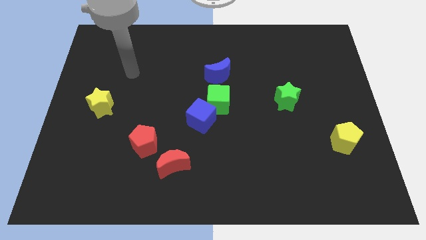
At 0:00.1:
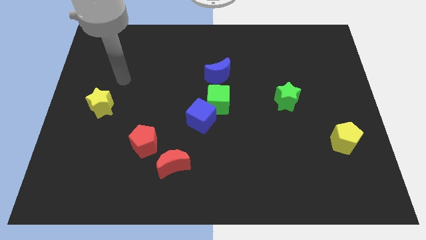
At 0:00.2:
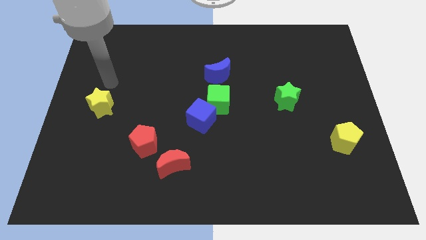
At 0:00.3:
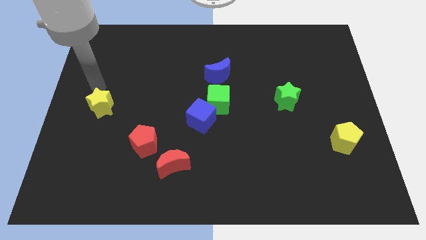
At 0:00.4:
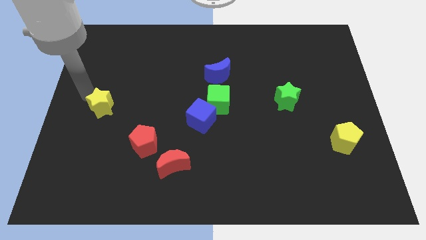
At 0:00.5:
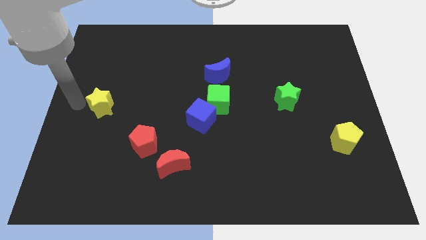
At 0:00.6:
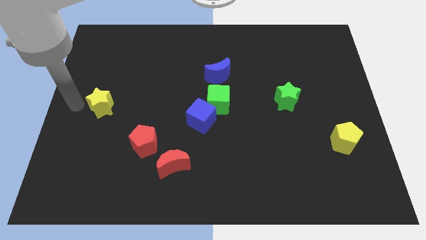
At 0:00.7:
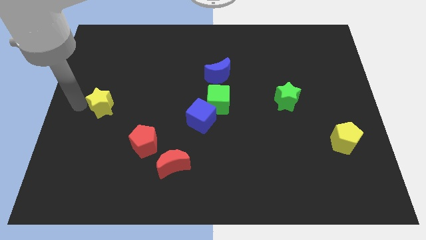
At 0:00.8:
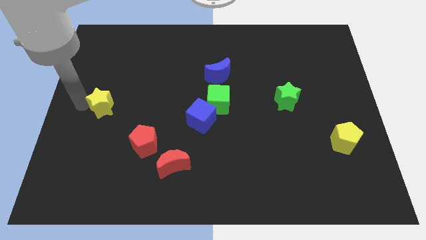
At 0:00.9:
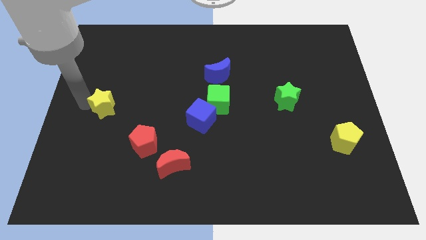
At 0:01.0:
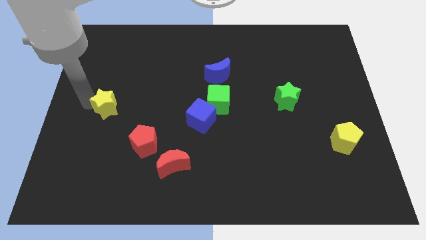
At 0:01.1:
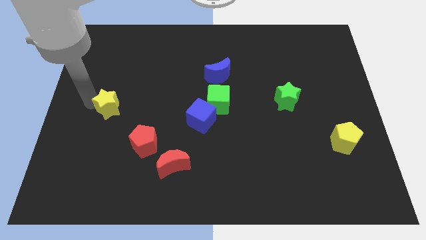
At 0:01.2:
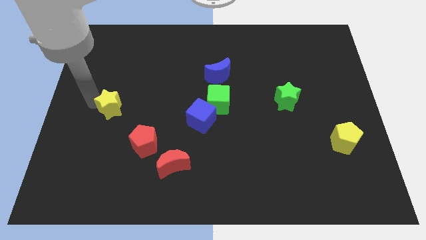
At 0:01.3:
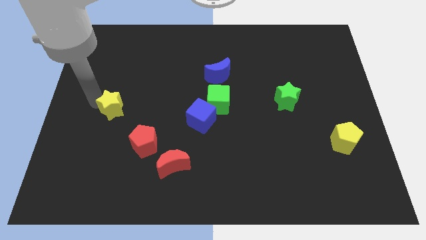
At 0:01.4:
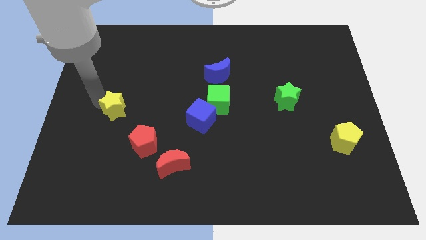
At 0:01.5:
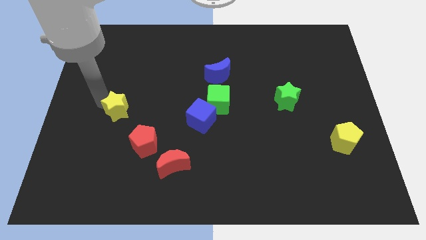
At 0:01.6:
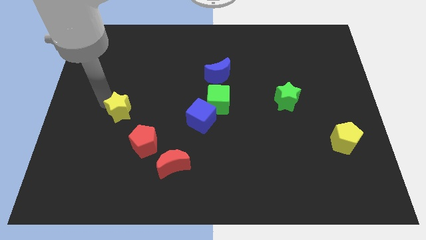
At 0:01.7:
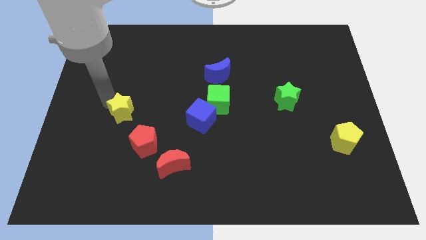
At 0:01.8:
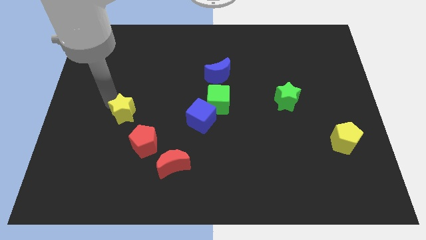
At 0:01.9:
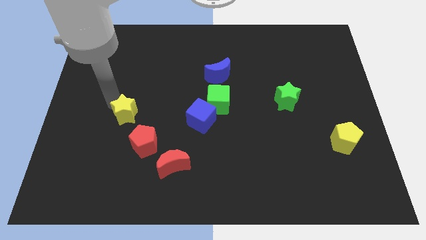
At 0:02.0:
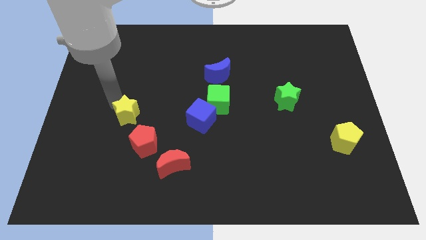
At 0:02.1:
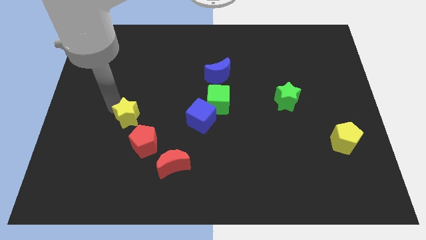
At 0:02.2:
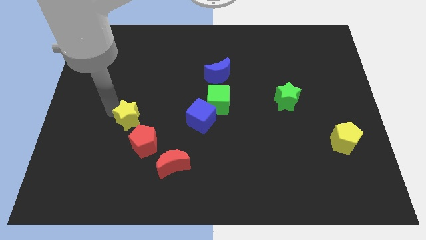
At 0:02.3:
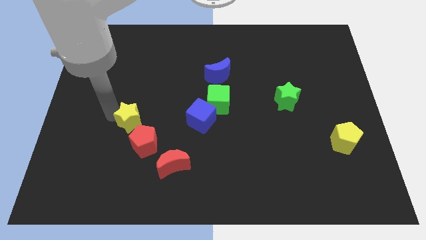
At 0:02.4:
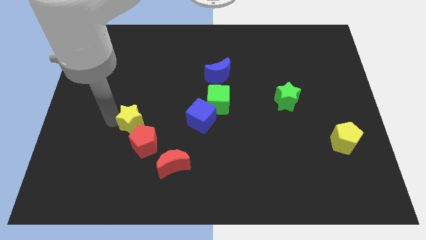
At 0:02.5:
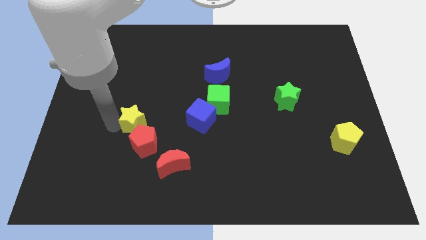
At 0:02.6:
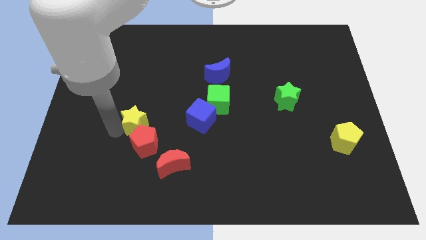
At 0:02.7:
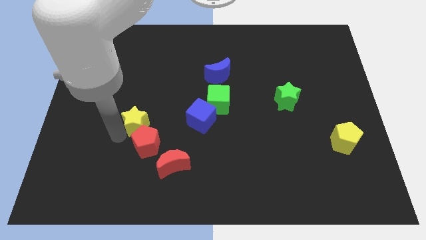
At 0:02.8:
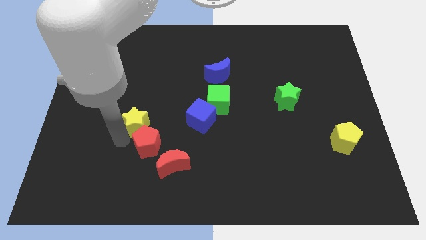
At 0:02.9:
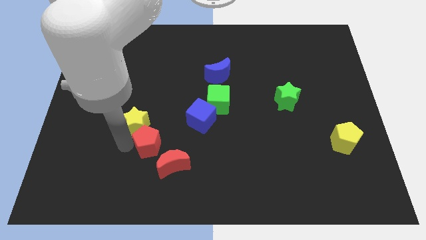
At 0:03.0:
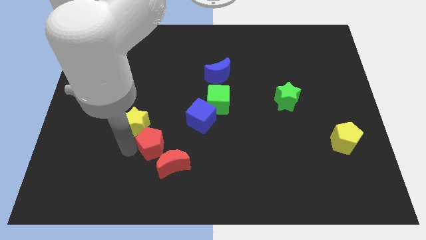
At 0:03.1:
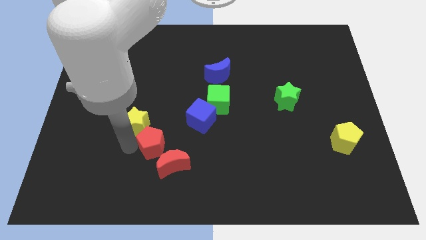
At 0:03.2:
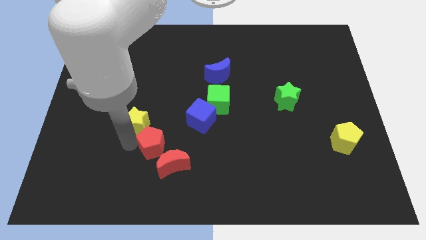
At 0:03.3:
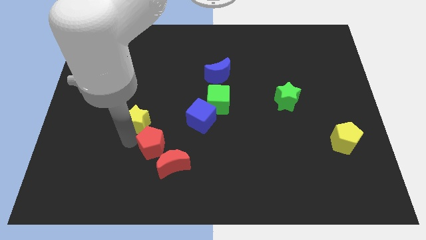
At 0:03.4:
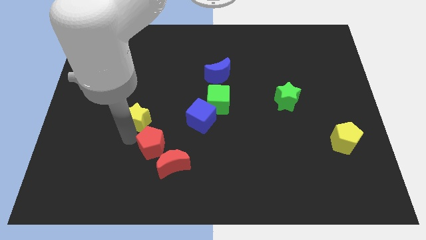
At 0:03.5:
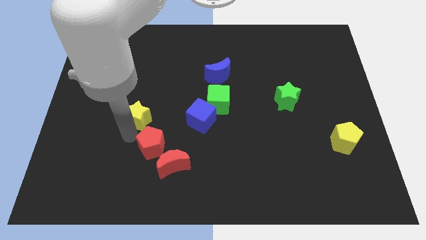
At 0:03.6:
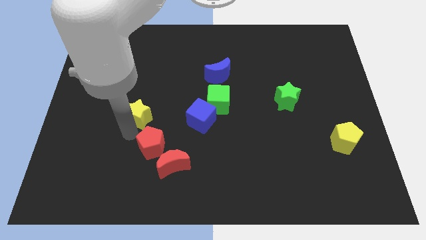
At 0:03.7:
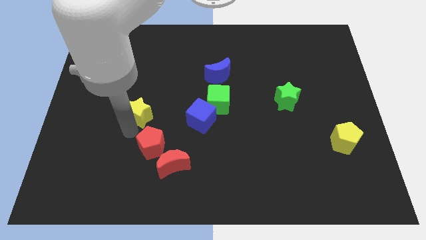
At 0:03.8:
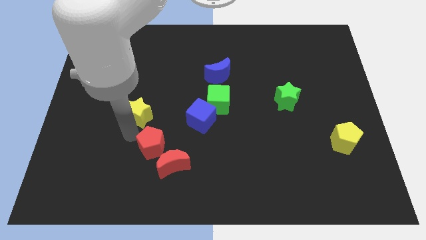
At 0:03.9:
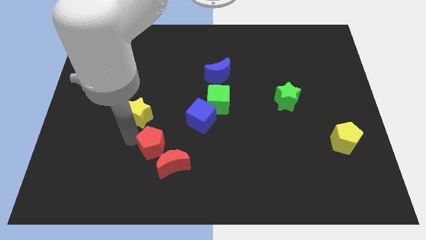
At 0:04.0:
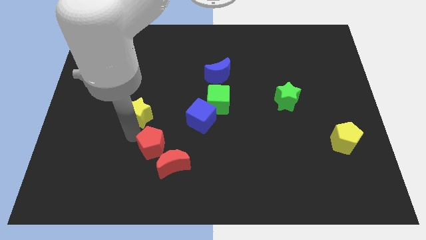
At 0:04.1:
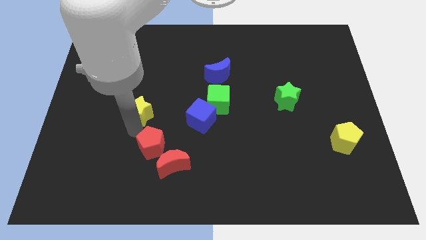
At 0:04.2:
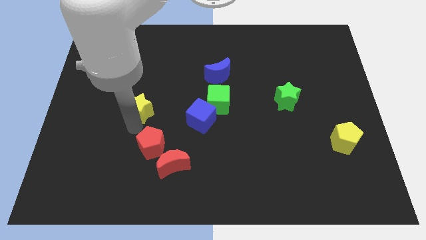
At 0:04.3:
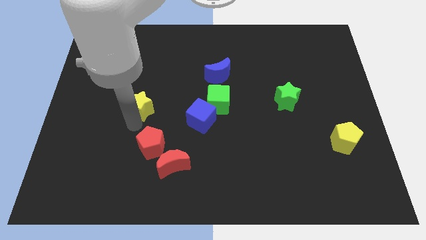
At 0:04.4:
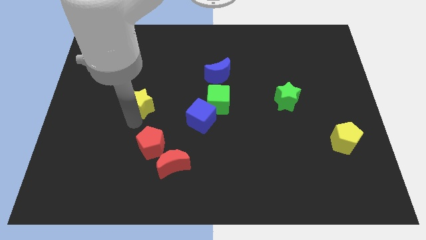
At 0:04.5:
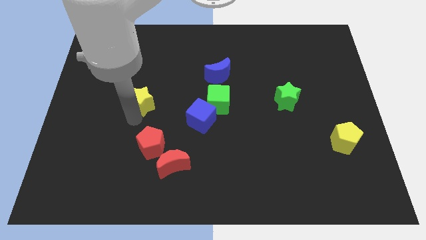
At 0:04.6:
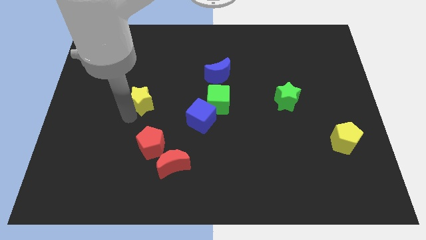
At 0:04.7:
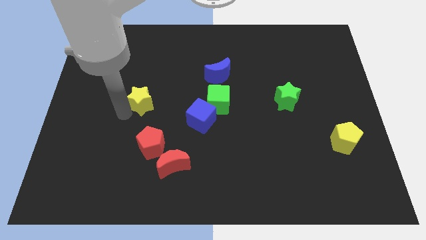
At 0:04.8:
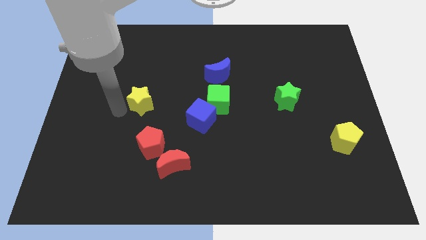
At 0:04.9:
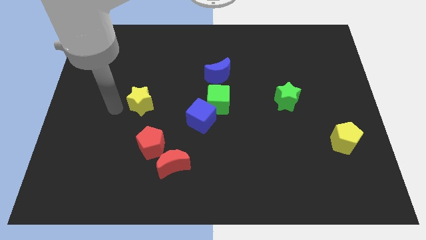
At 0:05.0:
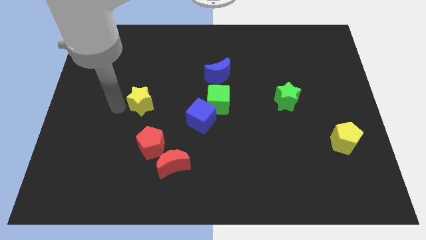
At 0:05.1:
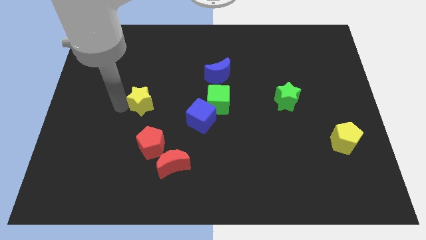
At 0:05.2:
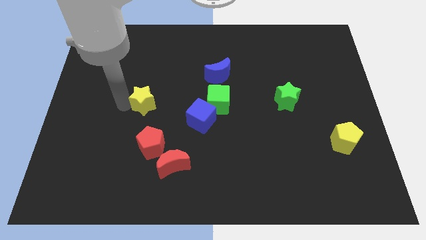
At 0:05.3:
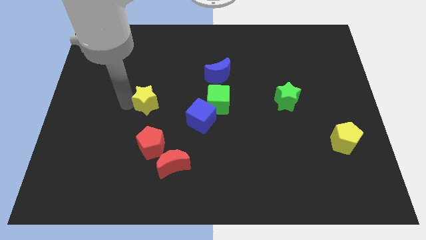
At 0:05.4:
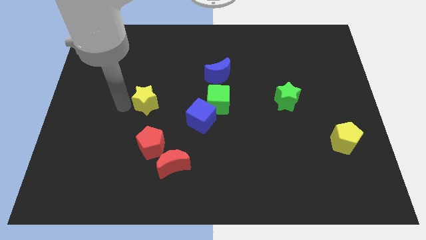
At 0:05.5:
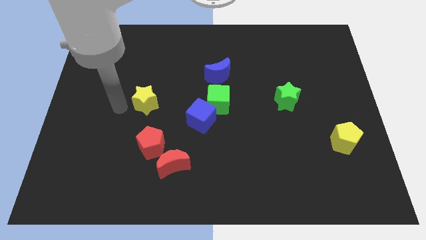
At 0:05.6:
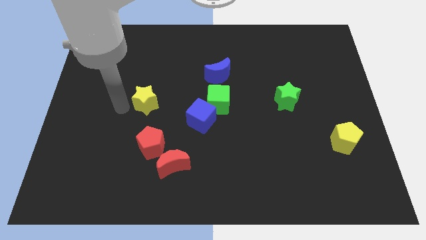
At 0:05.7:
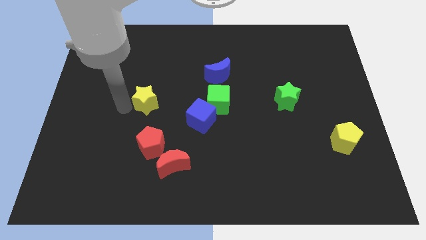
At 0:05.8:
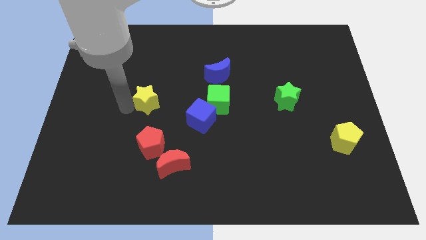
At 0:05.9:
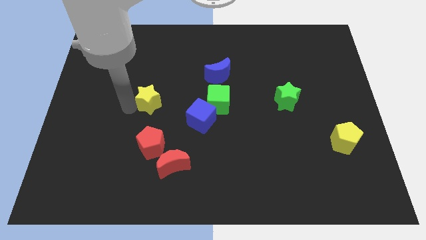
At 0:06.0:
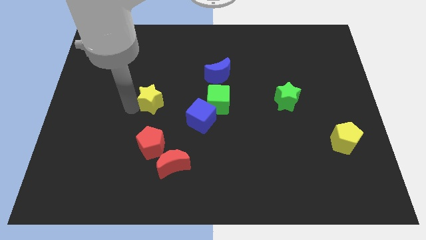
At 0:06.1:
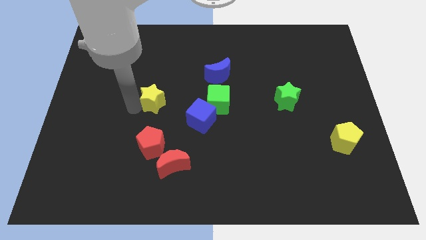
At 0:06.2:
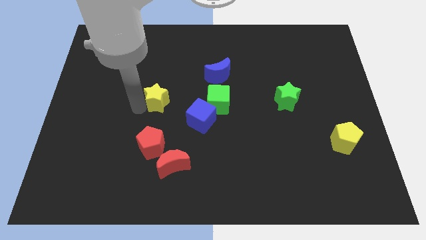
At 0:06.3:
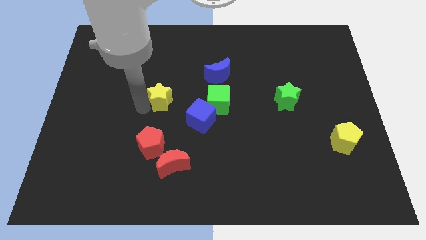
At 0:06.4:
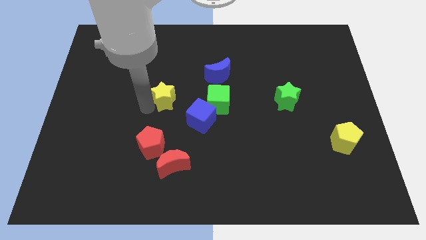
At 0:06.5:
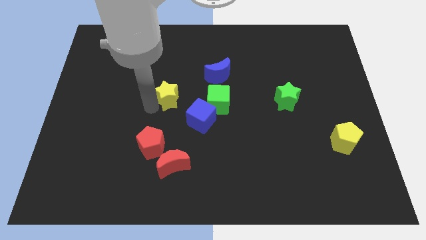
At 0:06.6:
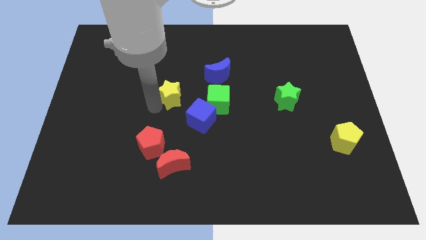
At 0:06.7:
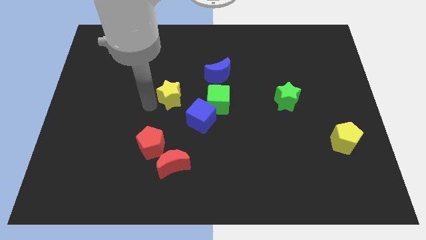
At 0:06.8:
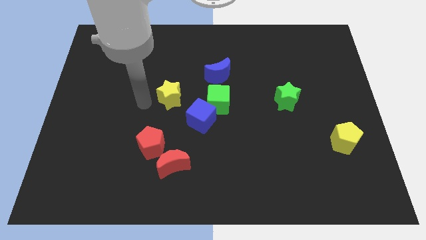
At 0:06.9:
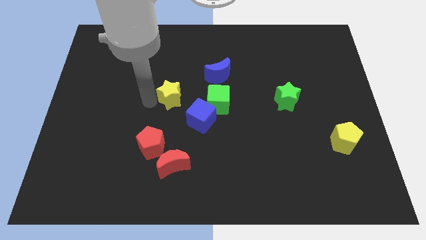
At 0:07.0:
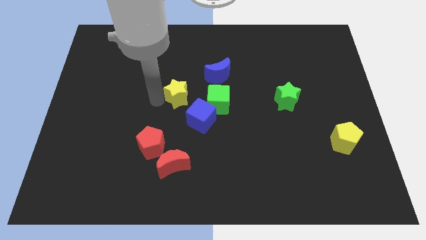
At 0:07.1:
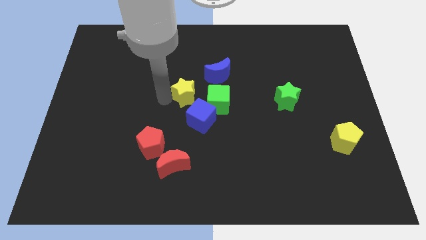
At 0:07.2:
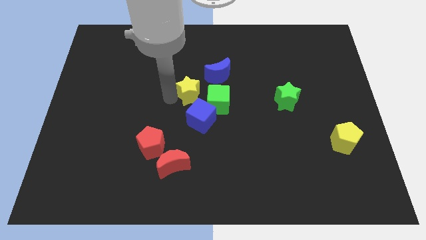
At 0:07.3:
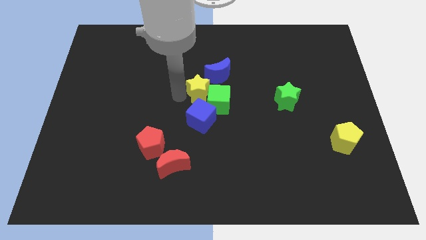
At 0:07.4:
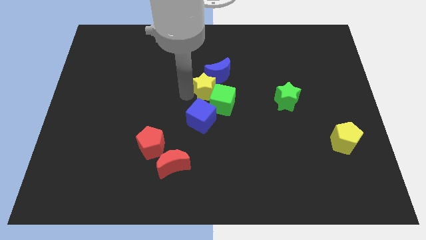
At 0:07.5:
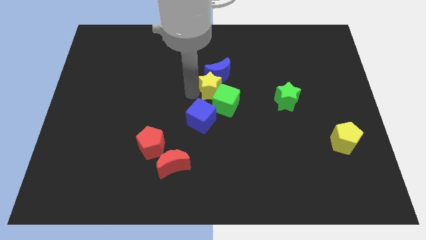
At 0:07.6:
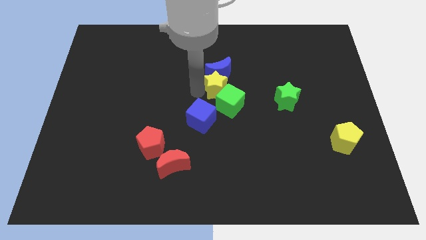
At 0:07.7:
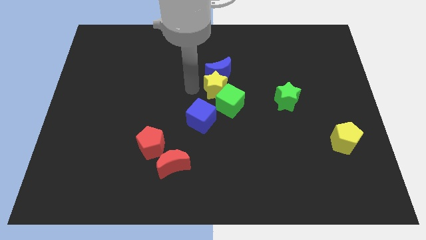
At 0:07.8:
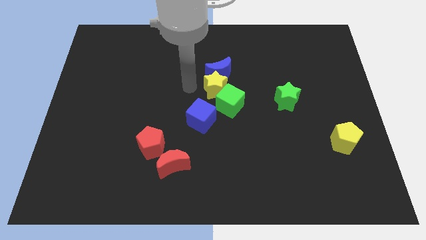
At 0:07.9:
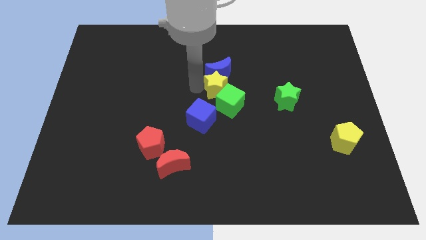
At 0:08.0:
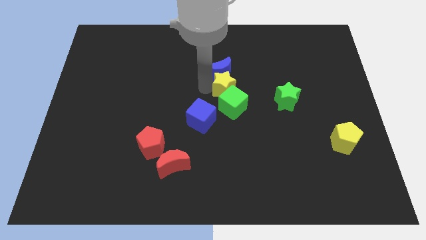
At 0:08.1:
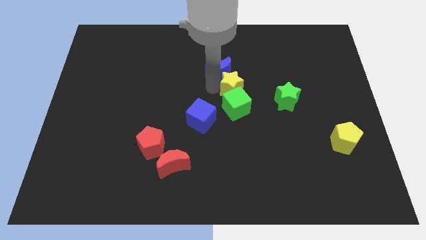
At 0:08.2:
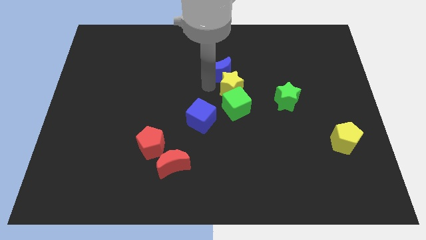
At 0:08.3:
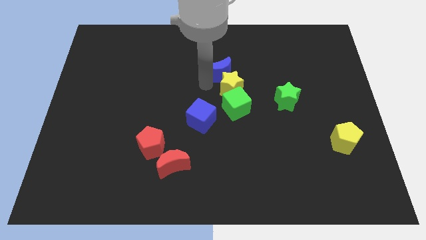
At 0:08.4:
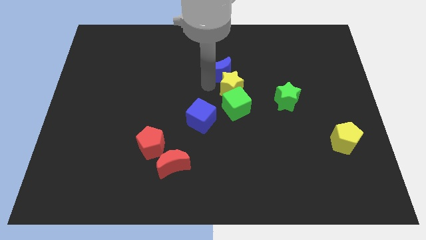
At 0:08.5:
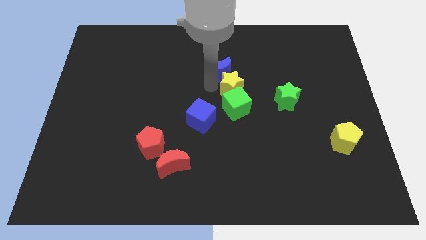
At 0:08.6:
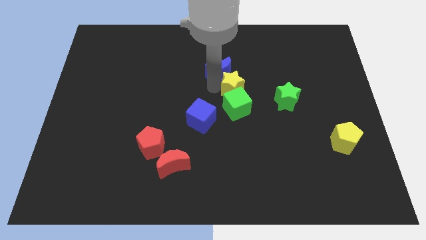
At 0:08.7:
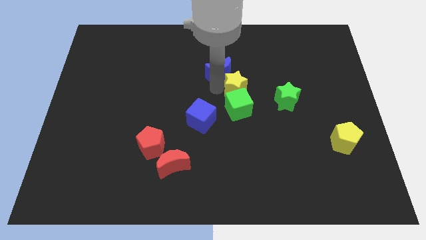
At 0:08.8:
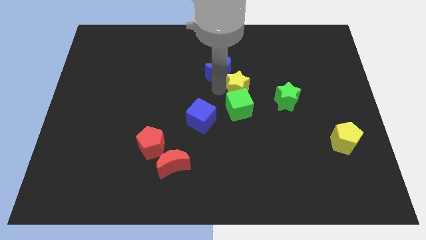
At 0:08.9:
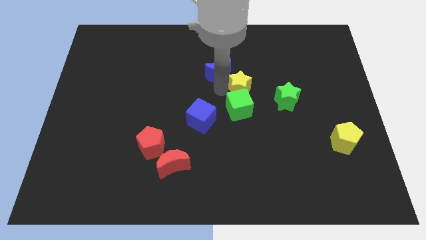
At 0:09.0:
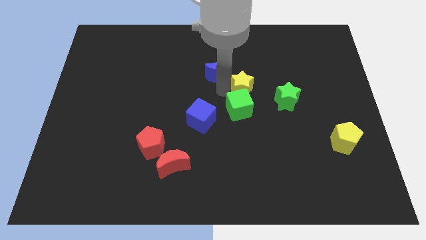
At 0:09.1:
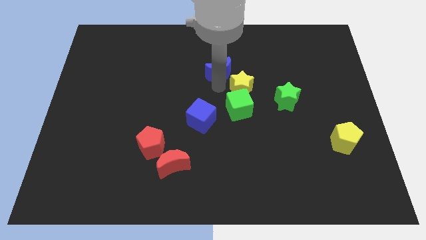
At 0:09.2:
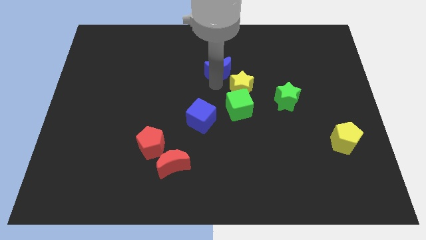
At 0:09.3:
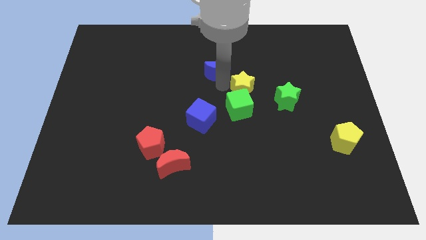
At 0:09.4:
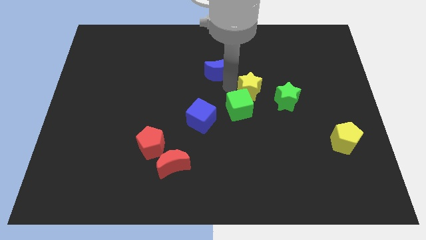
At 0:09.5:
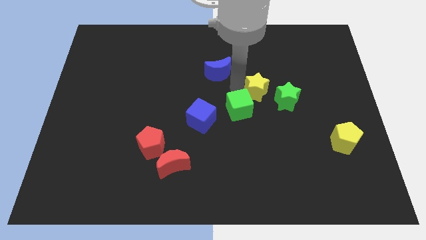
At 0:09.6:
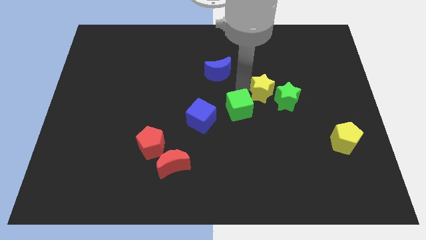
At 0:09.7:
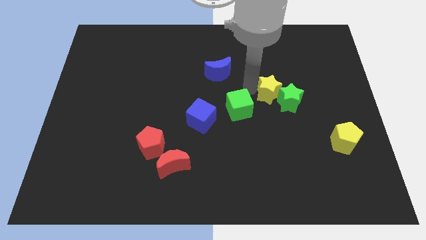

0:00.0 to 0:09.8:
put the yellow star close to the green star
